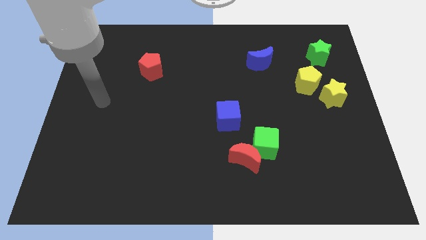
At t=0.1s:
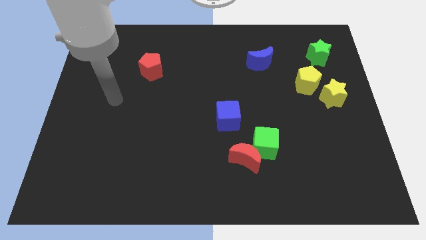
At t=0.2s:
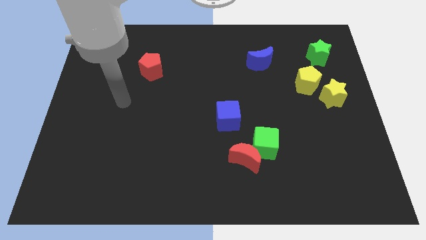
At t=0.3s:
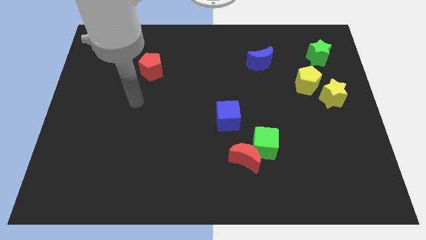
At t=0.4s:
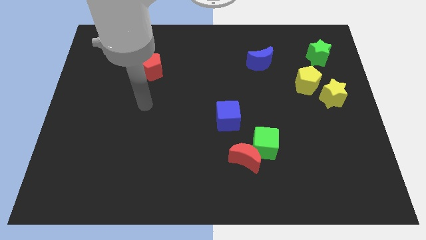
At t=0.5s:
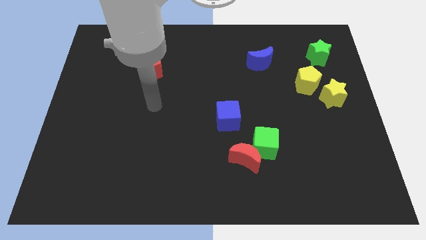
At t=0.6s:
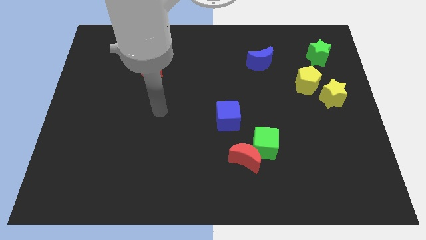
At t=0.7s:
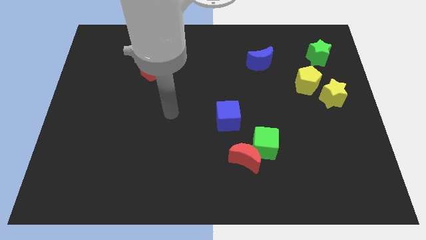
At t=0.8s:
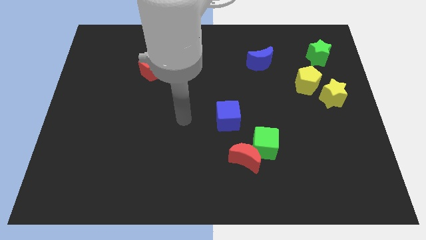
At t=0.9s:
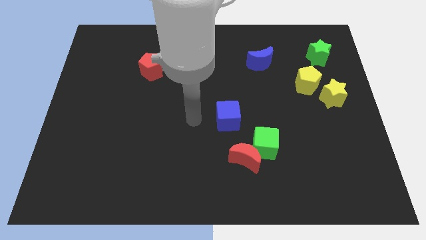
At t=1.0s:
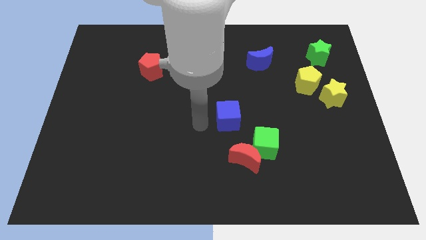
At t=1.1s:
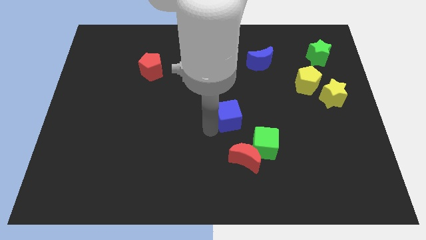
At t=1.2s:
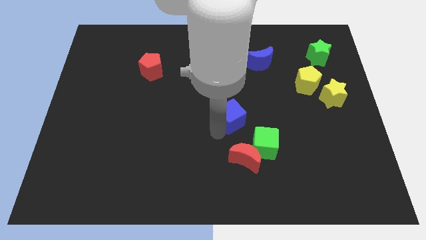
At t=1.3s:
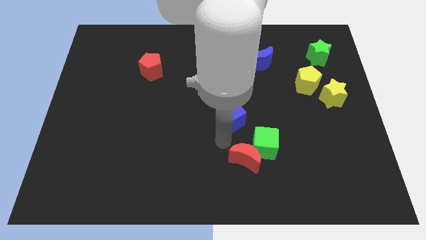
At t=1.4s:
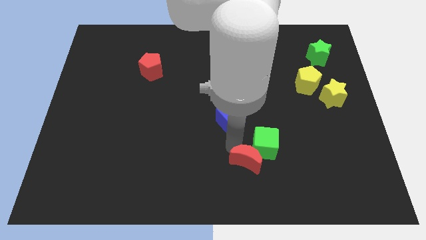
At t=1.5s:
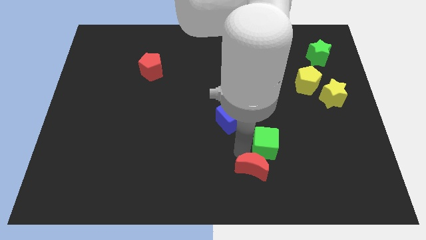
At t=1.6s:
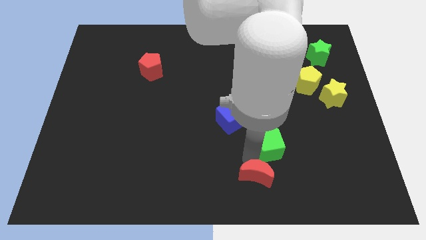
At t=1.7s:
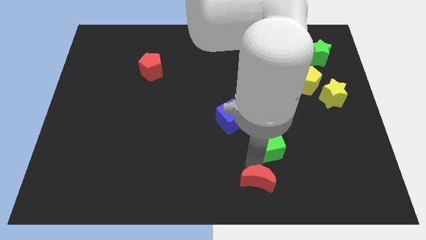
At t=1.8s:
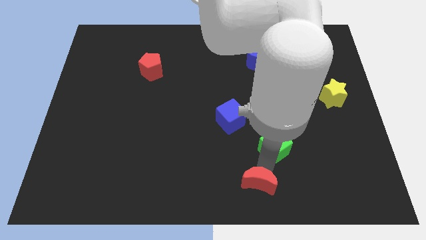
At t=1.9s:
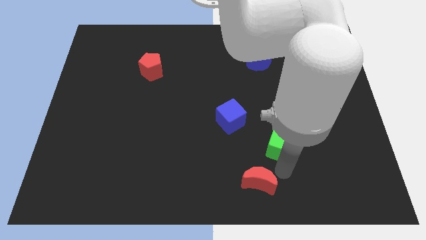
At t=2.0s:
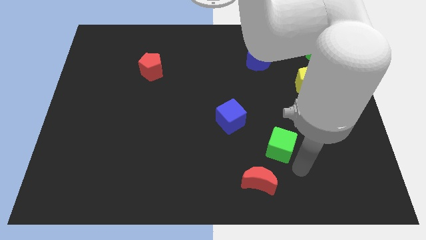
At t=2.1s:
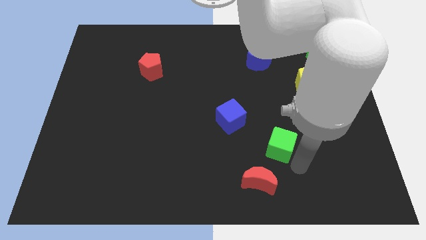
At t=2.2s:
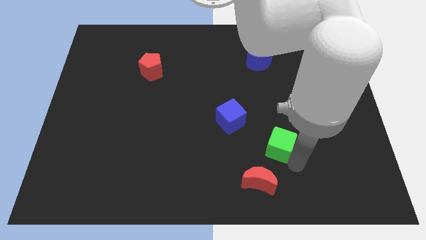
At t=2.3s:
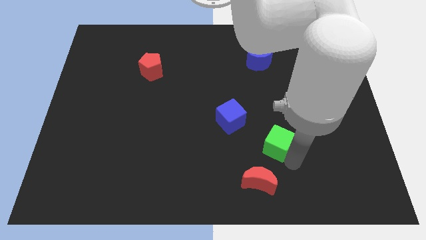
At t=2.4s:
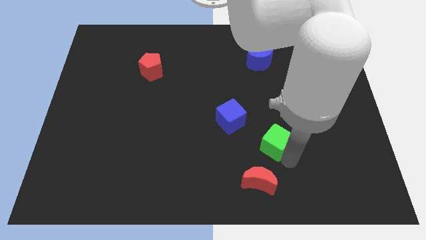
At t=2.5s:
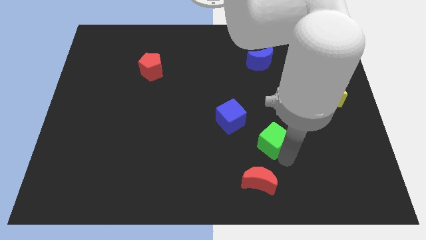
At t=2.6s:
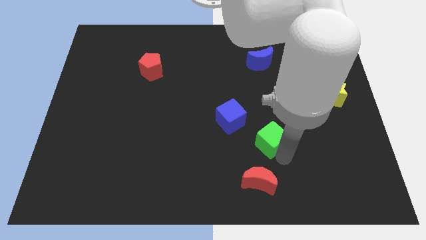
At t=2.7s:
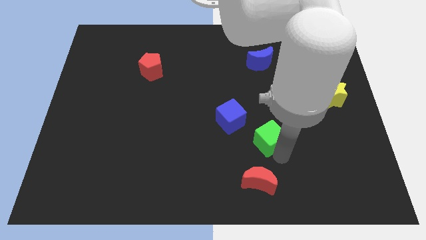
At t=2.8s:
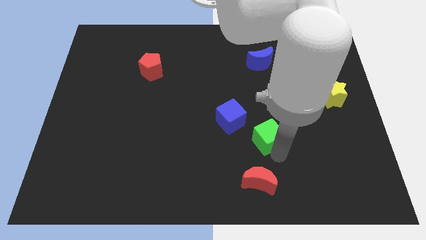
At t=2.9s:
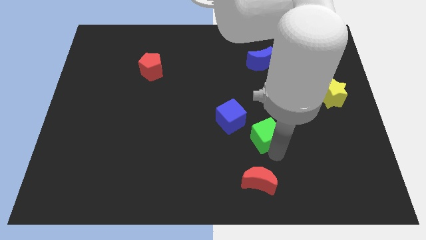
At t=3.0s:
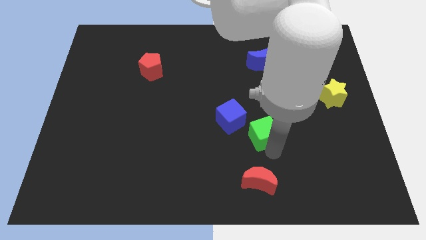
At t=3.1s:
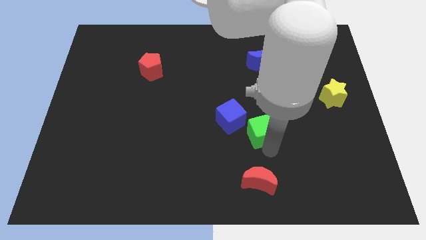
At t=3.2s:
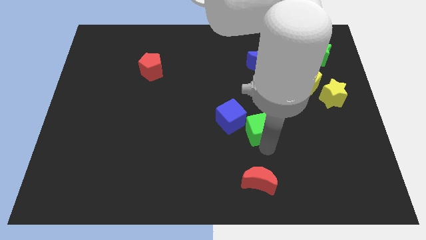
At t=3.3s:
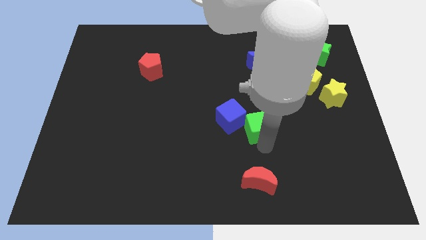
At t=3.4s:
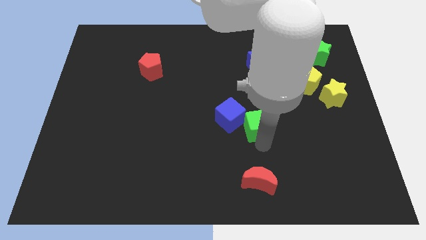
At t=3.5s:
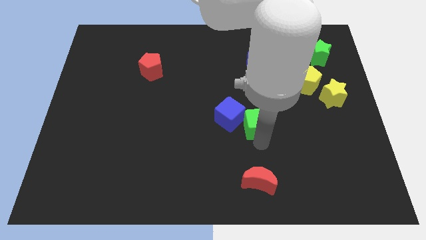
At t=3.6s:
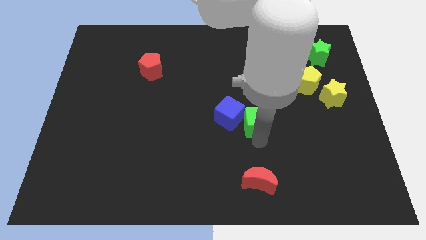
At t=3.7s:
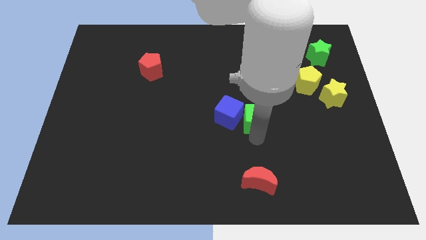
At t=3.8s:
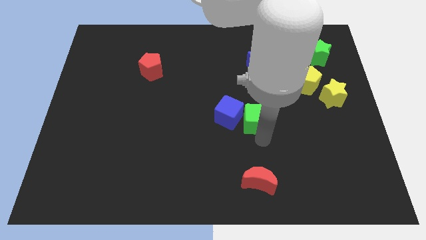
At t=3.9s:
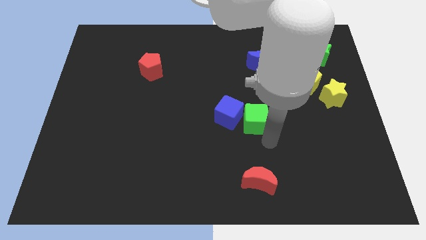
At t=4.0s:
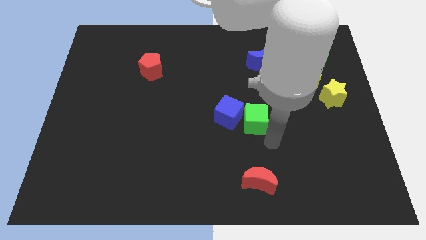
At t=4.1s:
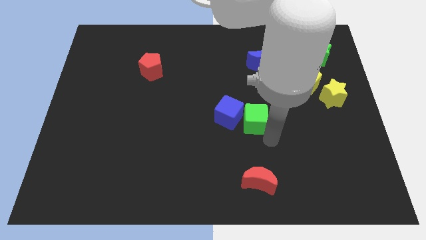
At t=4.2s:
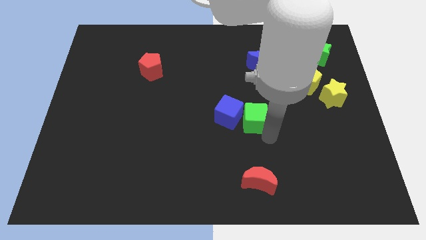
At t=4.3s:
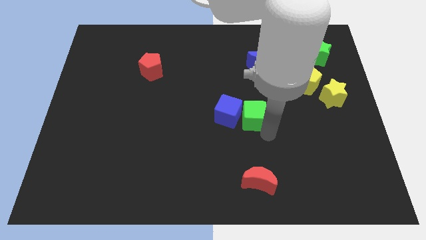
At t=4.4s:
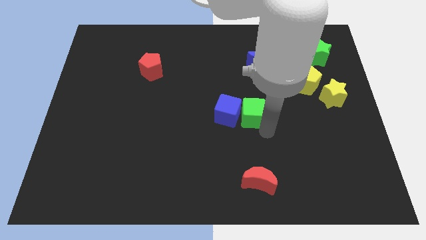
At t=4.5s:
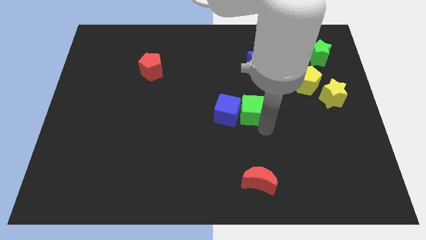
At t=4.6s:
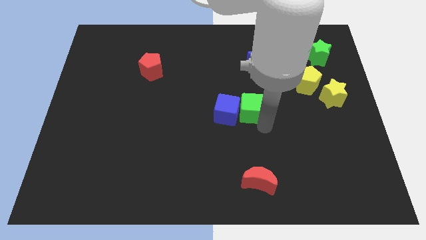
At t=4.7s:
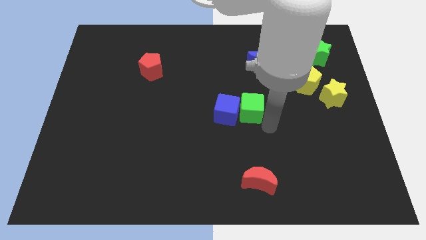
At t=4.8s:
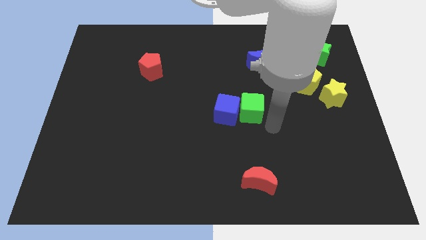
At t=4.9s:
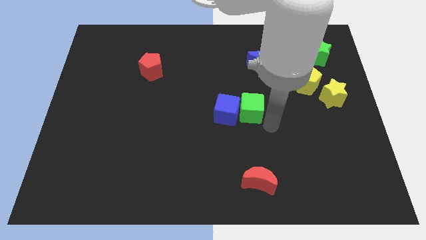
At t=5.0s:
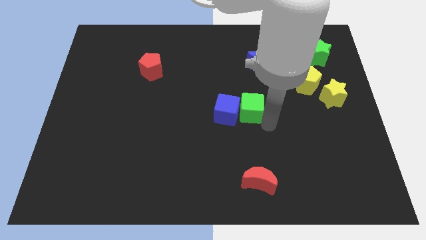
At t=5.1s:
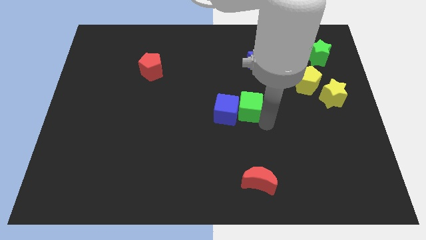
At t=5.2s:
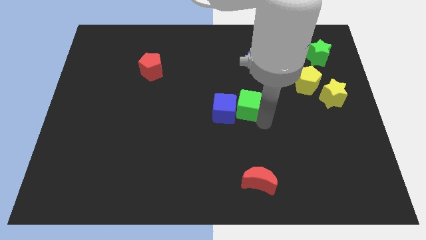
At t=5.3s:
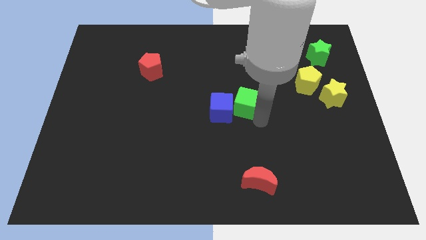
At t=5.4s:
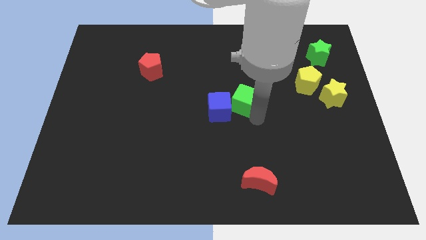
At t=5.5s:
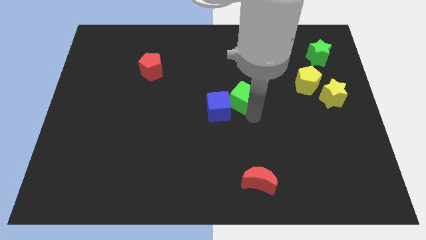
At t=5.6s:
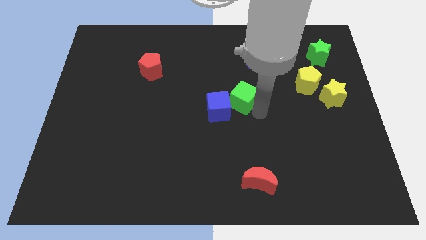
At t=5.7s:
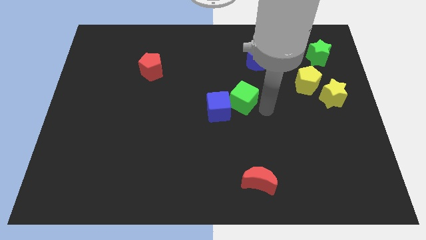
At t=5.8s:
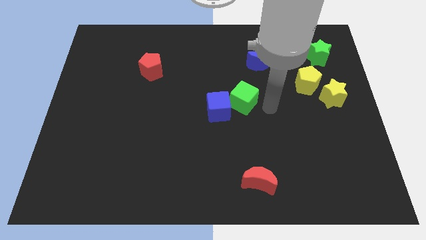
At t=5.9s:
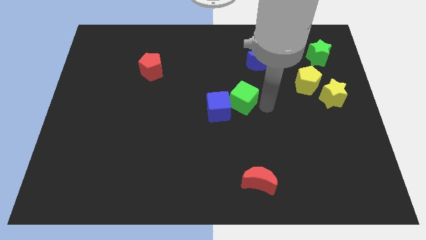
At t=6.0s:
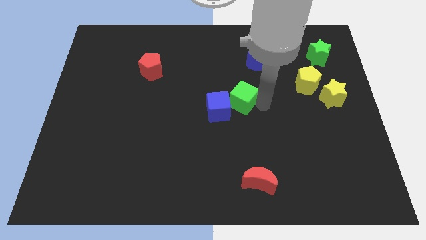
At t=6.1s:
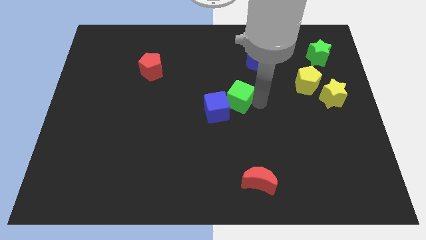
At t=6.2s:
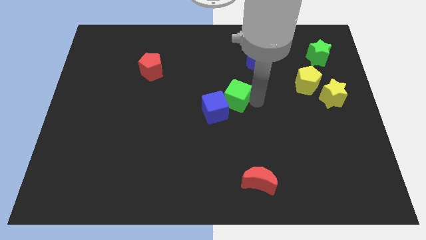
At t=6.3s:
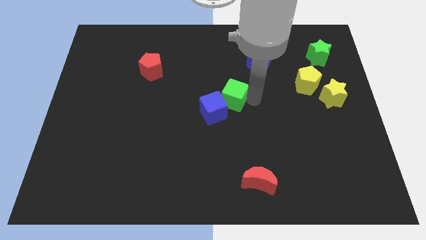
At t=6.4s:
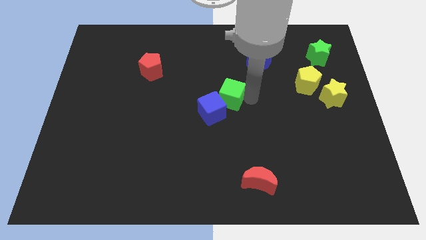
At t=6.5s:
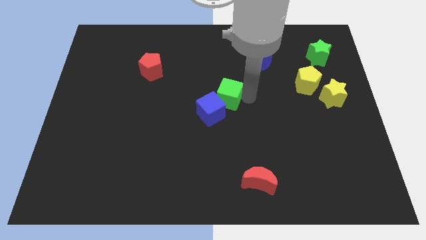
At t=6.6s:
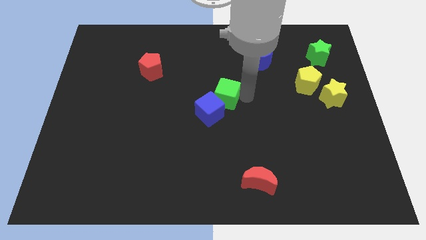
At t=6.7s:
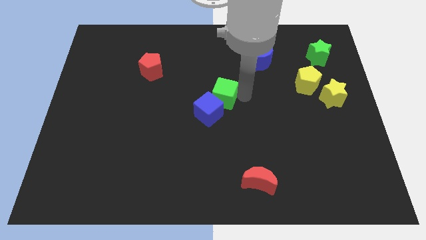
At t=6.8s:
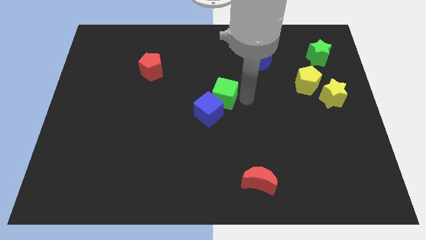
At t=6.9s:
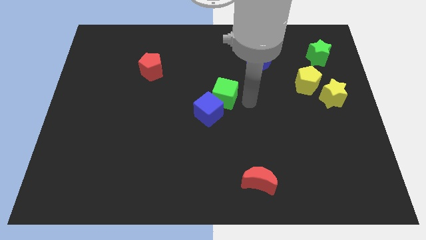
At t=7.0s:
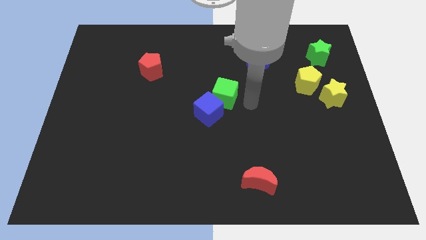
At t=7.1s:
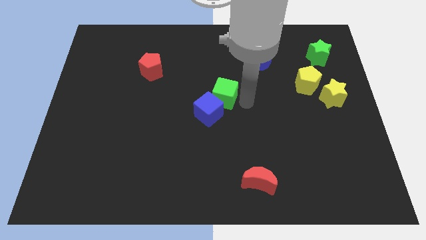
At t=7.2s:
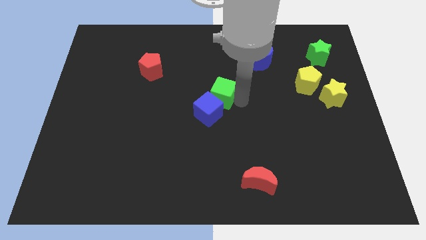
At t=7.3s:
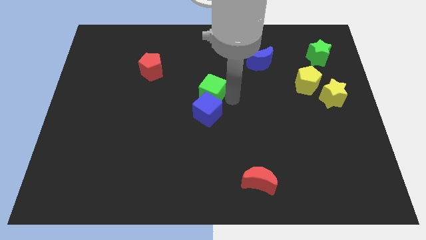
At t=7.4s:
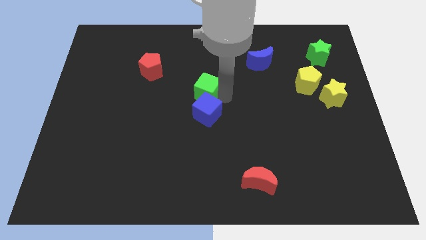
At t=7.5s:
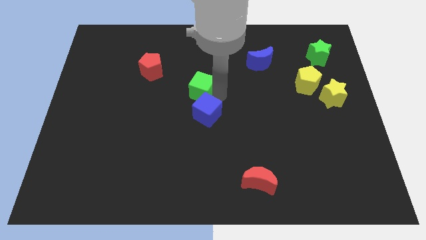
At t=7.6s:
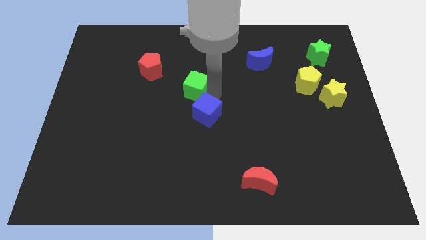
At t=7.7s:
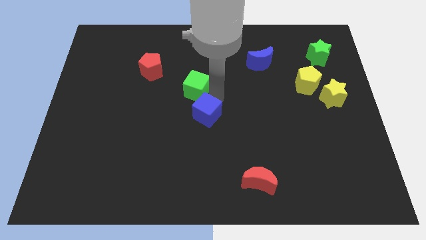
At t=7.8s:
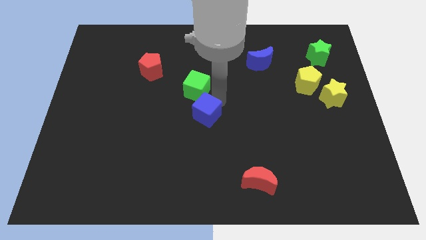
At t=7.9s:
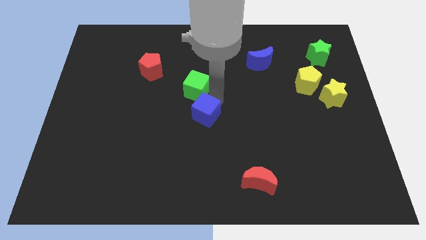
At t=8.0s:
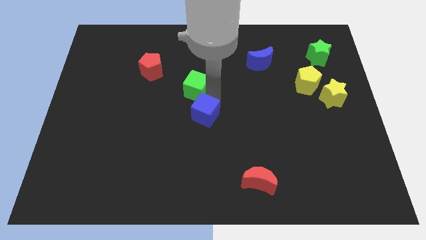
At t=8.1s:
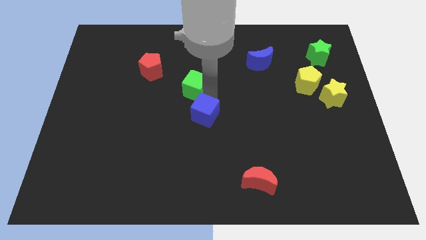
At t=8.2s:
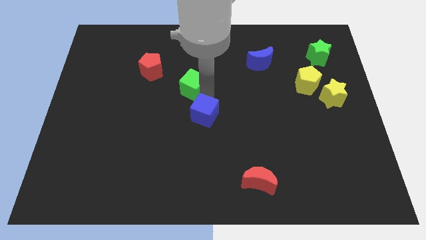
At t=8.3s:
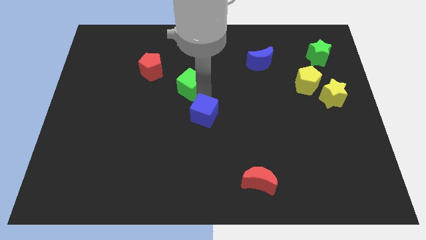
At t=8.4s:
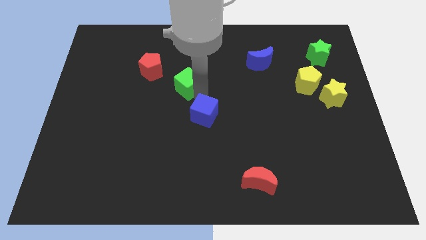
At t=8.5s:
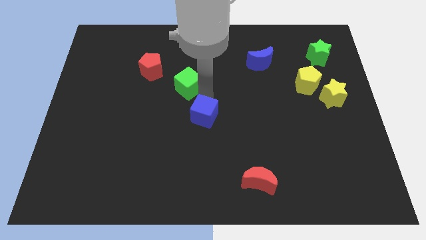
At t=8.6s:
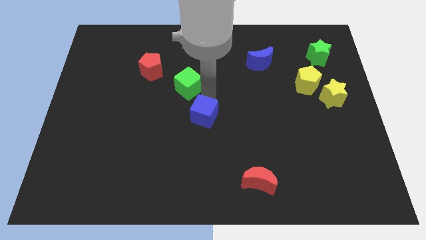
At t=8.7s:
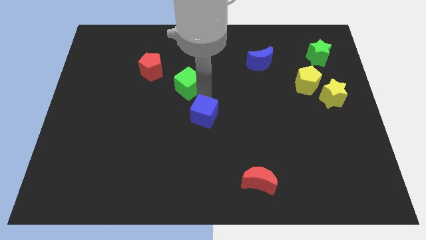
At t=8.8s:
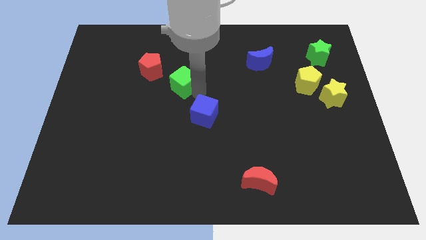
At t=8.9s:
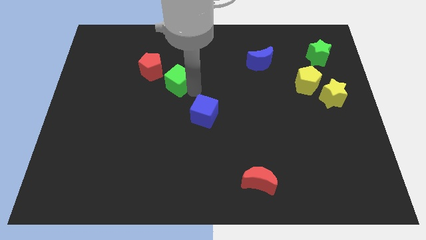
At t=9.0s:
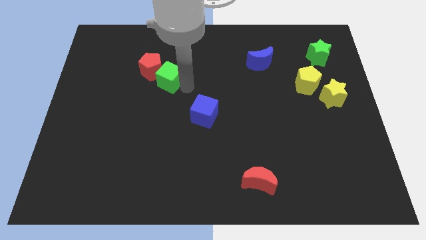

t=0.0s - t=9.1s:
push the green cube next to the red pentagon
